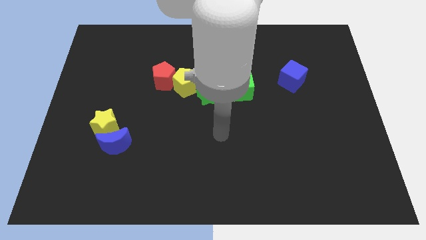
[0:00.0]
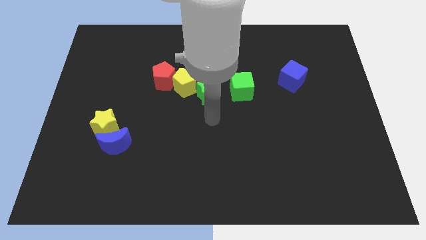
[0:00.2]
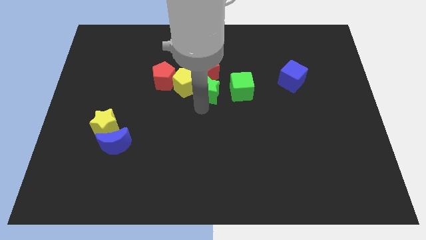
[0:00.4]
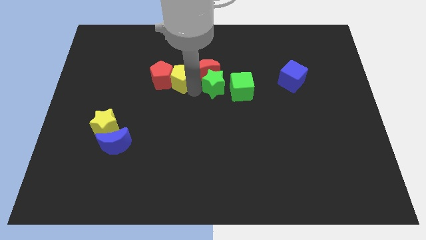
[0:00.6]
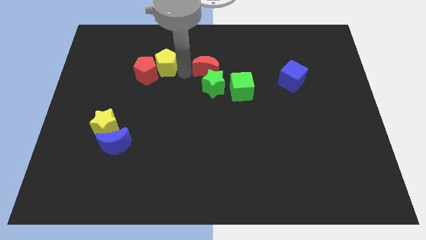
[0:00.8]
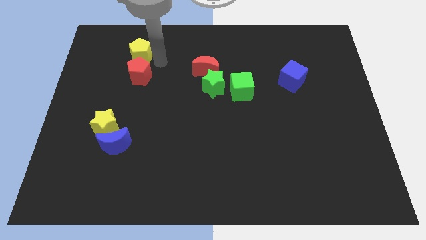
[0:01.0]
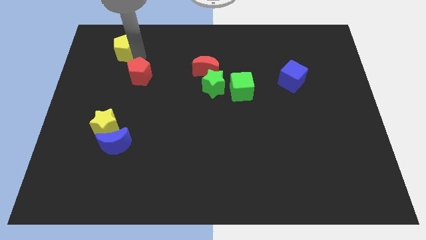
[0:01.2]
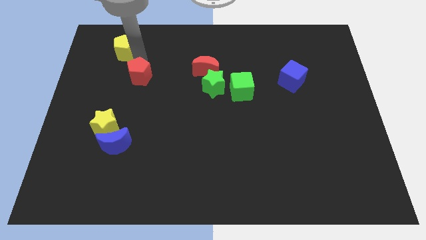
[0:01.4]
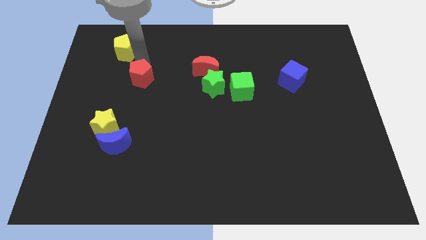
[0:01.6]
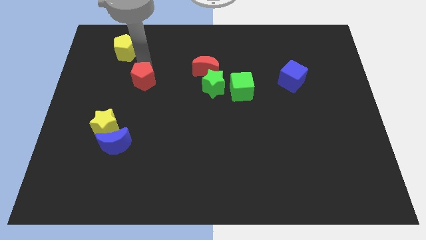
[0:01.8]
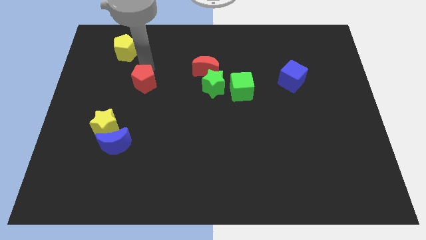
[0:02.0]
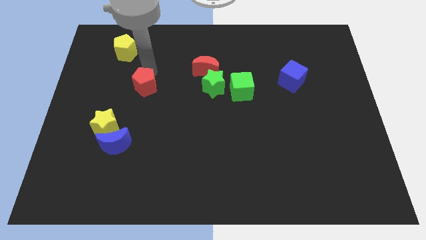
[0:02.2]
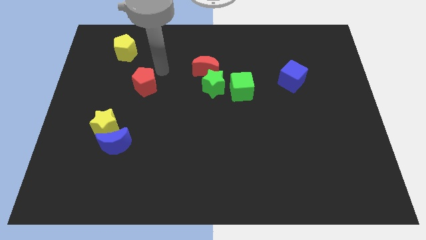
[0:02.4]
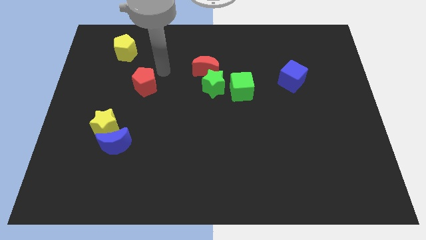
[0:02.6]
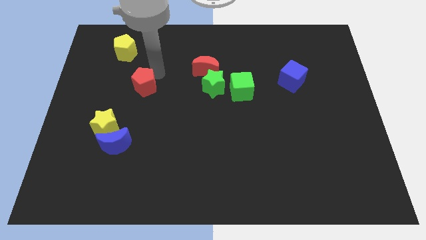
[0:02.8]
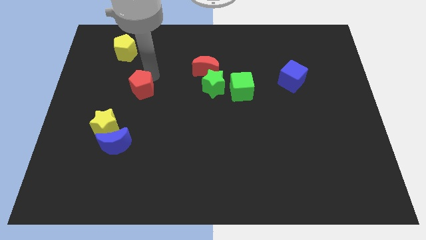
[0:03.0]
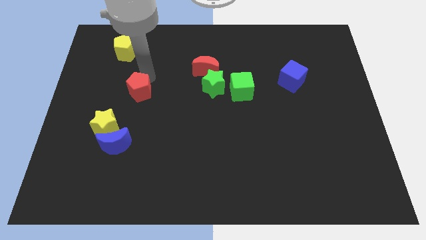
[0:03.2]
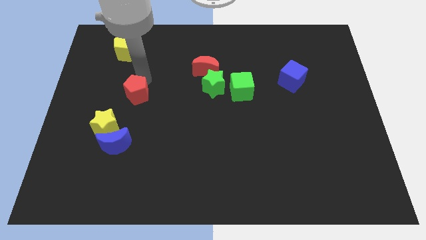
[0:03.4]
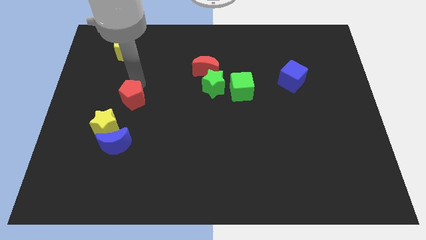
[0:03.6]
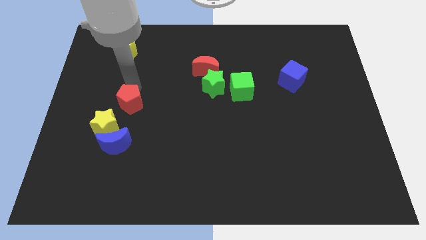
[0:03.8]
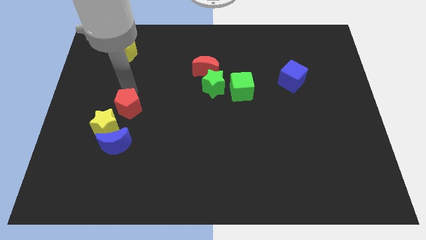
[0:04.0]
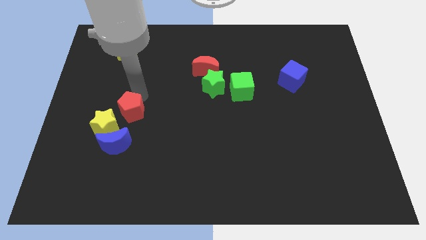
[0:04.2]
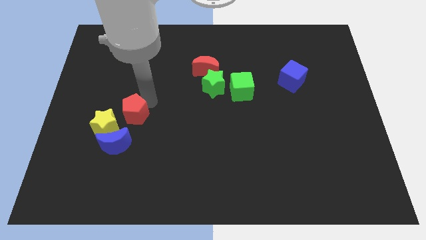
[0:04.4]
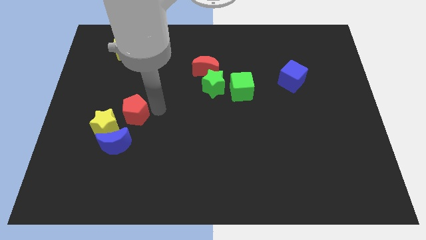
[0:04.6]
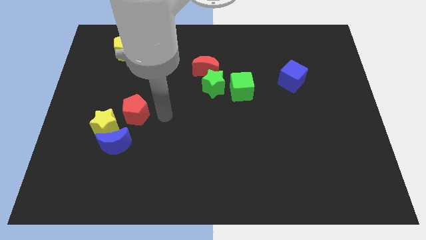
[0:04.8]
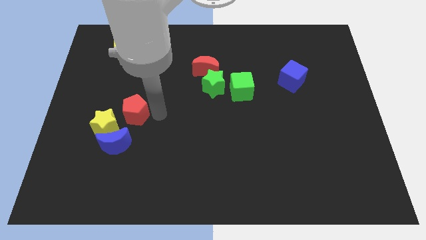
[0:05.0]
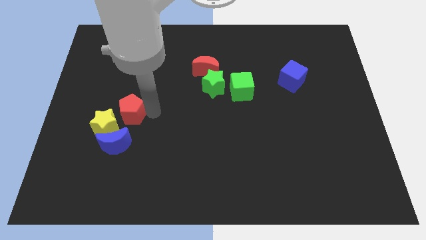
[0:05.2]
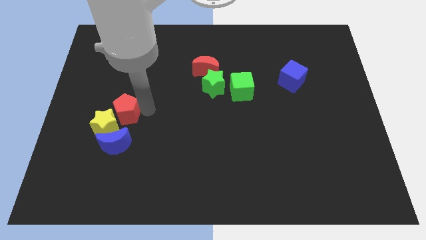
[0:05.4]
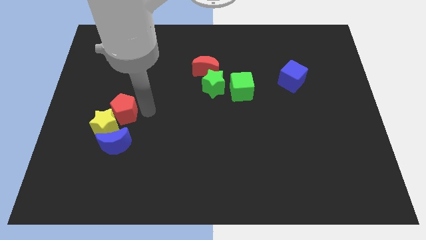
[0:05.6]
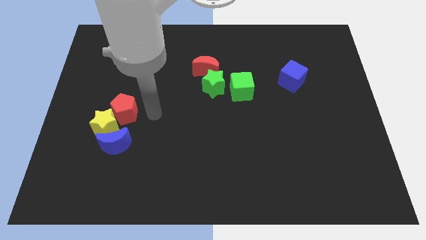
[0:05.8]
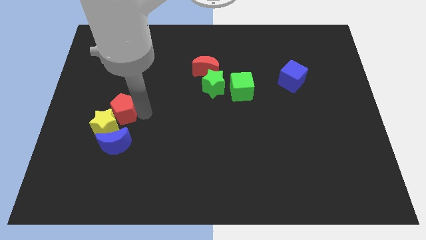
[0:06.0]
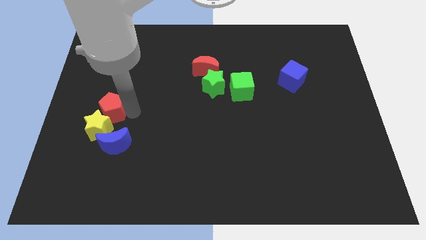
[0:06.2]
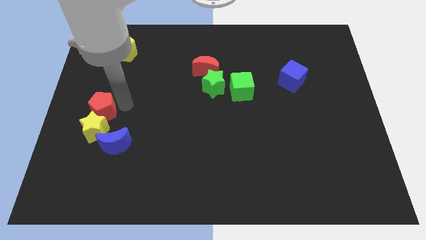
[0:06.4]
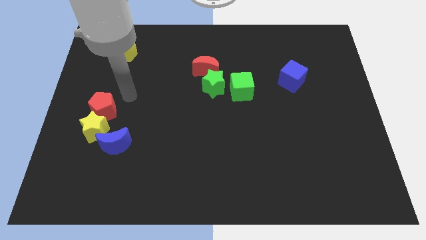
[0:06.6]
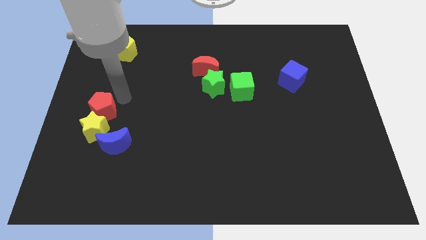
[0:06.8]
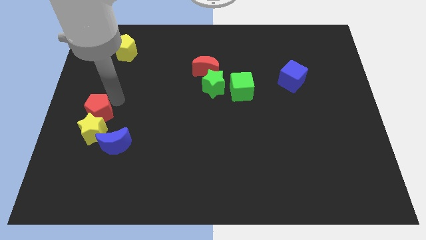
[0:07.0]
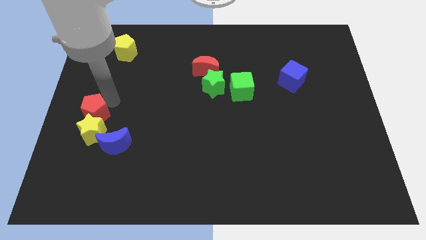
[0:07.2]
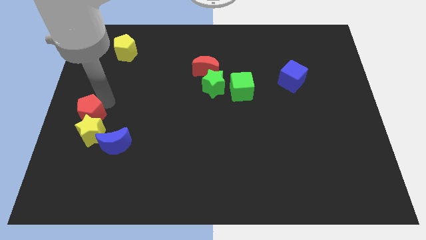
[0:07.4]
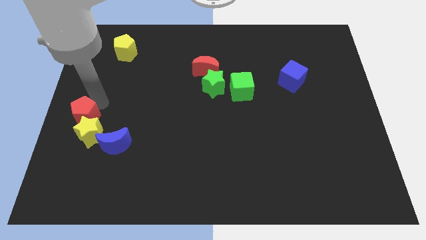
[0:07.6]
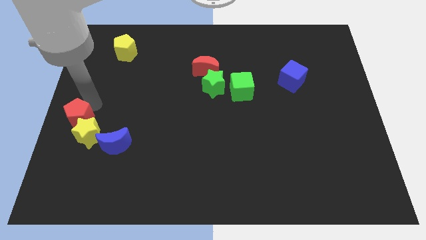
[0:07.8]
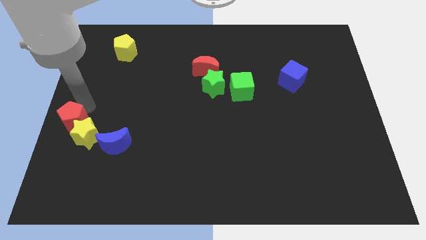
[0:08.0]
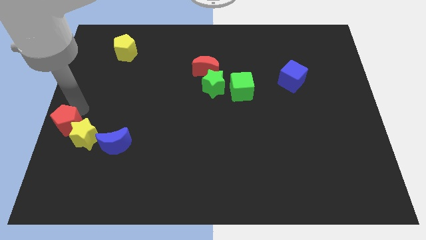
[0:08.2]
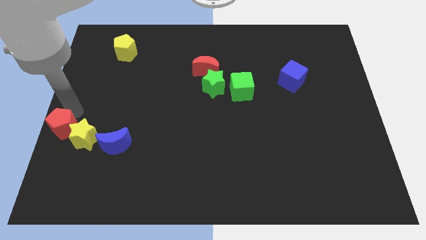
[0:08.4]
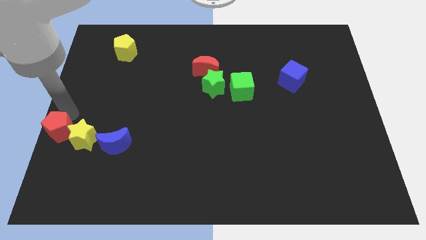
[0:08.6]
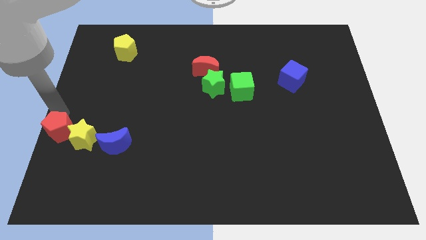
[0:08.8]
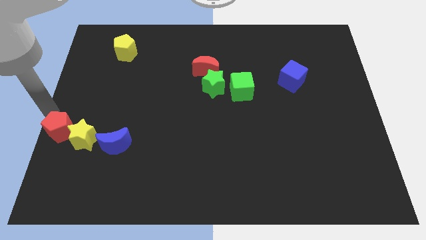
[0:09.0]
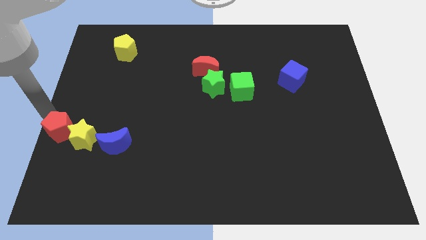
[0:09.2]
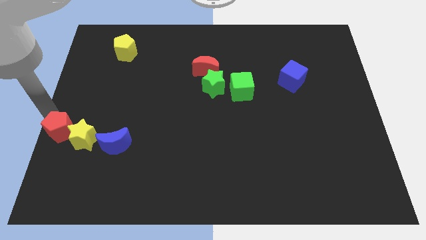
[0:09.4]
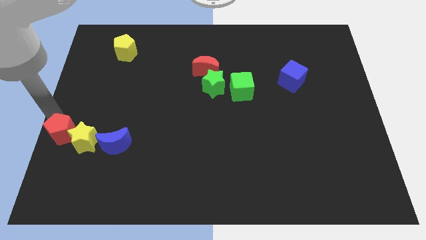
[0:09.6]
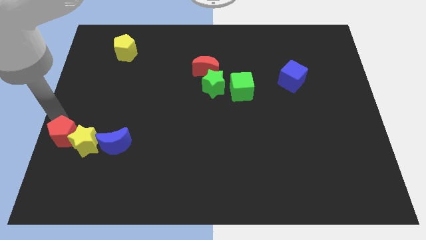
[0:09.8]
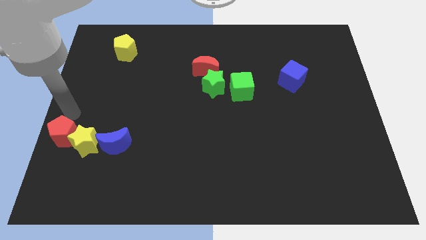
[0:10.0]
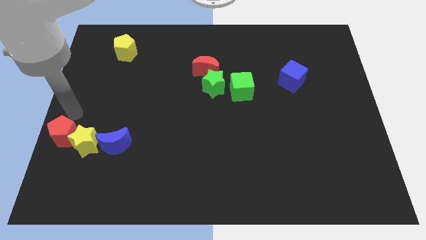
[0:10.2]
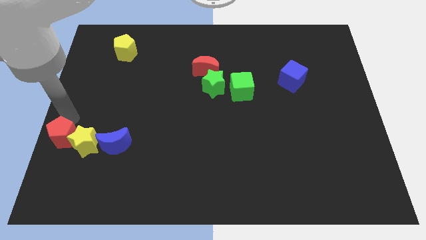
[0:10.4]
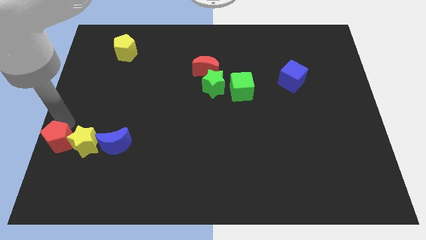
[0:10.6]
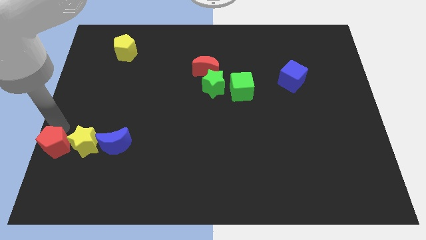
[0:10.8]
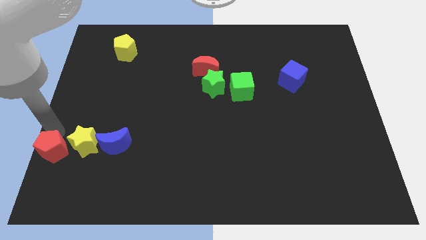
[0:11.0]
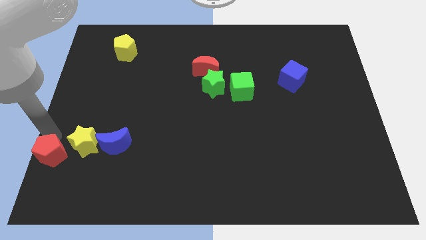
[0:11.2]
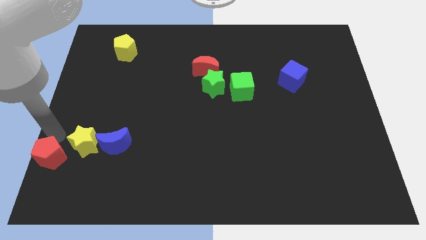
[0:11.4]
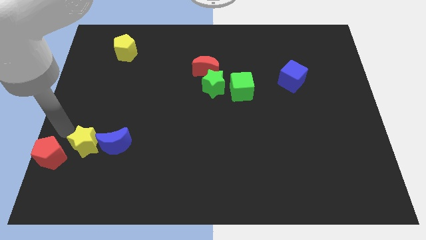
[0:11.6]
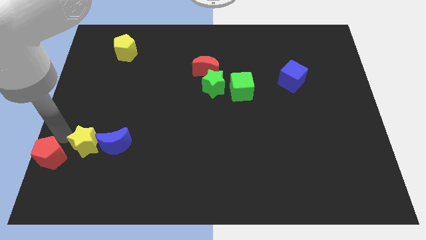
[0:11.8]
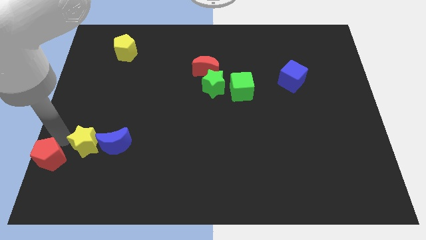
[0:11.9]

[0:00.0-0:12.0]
slide the red pentagon to the bottom left corner

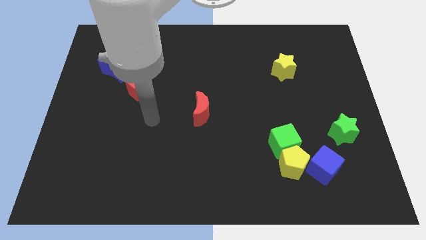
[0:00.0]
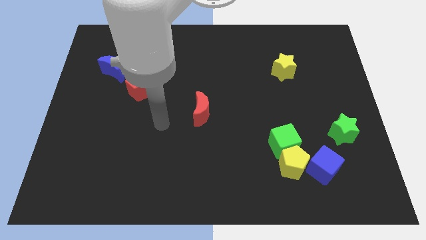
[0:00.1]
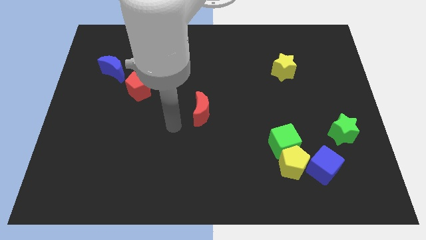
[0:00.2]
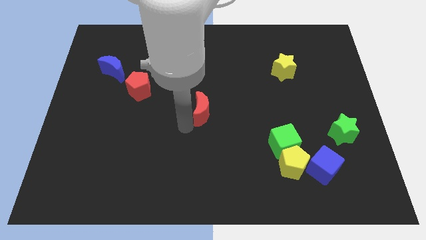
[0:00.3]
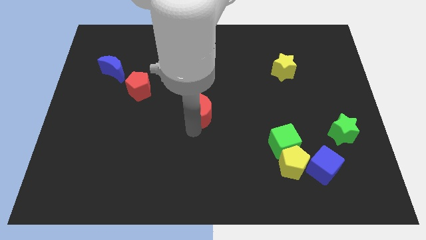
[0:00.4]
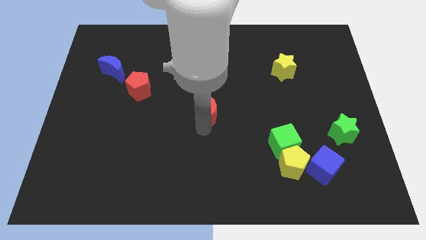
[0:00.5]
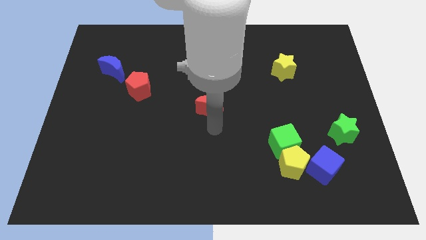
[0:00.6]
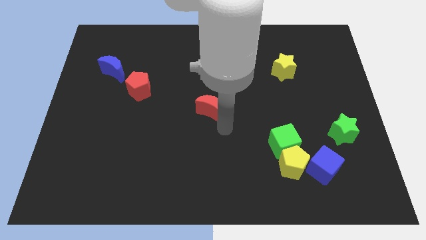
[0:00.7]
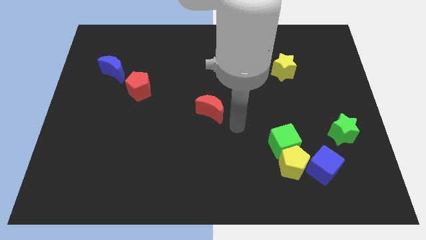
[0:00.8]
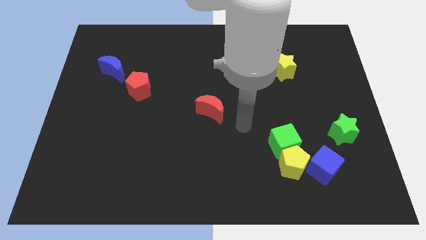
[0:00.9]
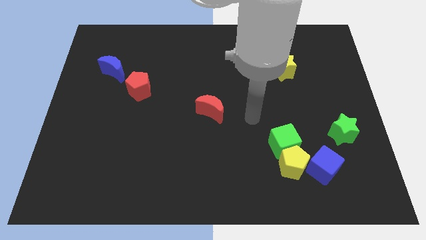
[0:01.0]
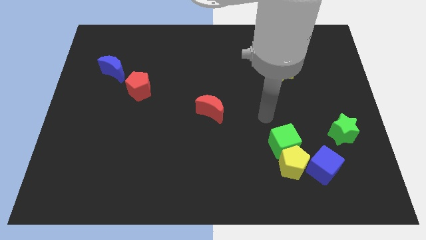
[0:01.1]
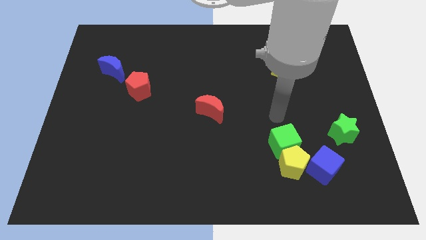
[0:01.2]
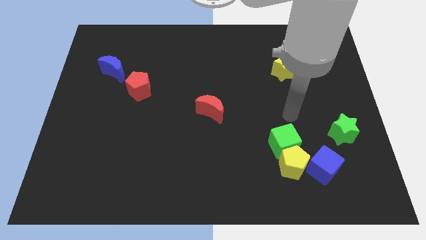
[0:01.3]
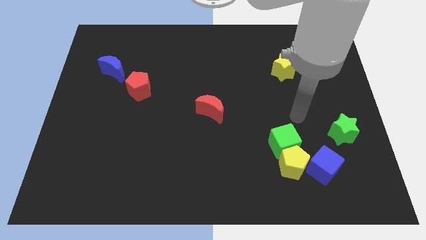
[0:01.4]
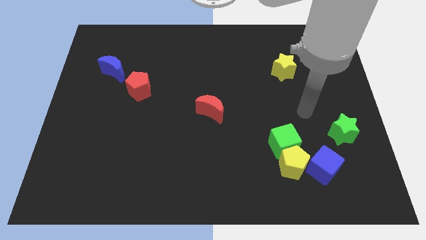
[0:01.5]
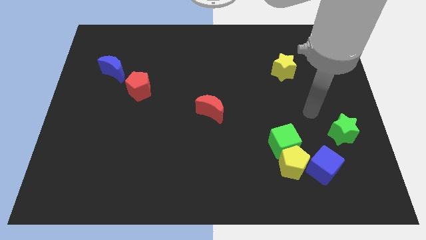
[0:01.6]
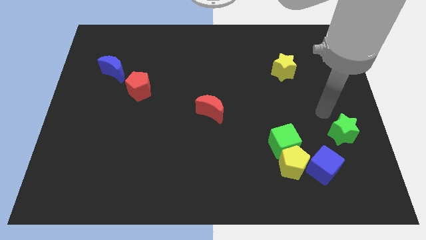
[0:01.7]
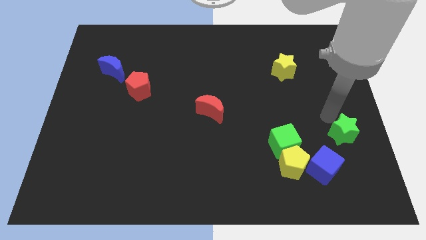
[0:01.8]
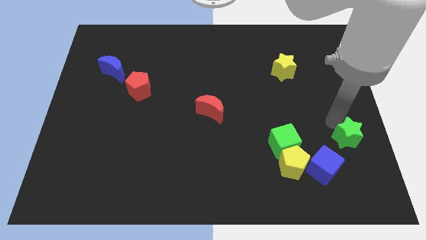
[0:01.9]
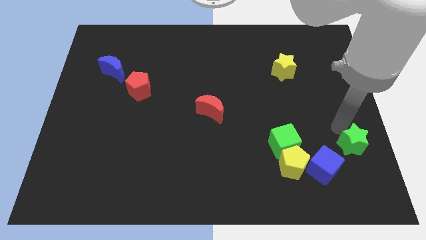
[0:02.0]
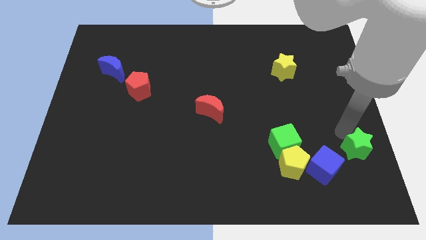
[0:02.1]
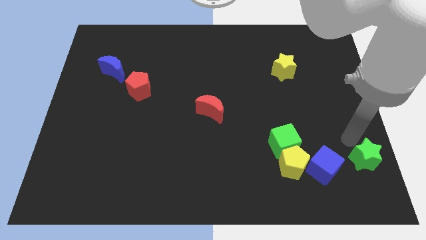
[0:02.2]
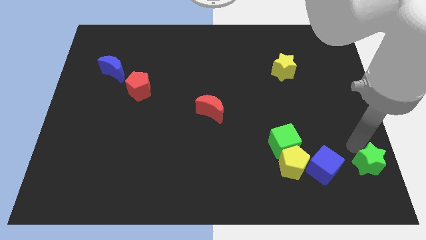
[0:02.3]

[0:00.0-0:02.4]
slide the green star to the bottom right
